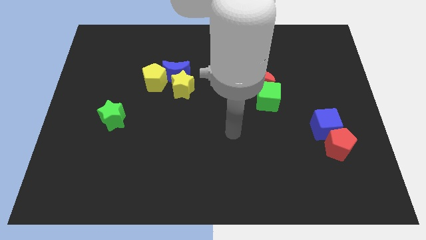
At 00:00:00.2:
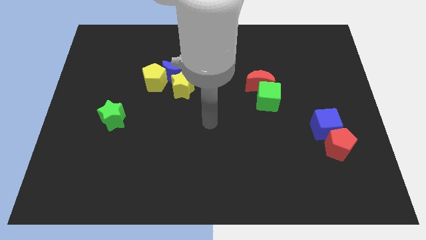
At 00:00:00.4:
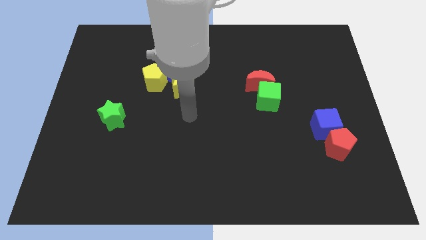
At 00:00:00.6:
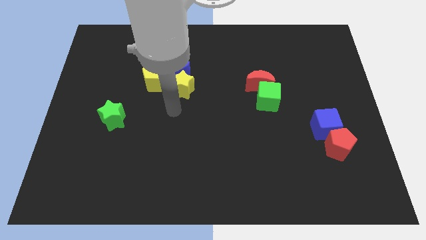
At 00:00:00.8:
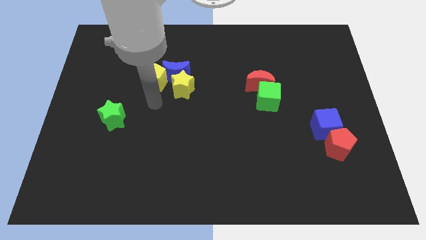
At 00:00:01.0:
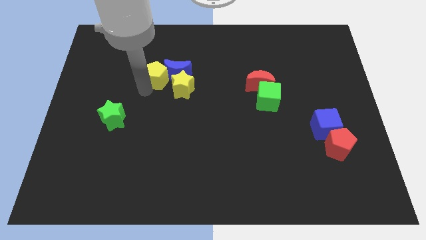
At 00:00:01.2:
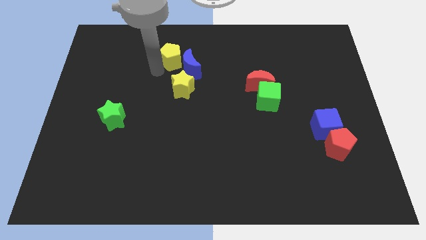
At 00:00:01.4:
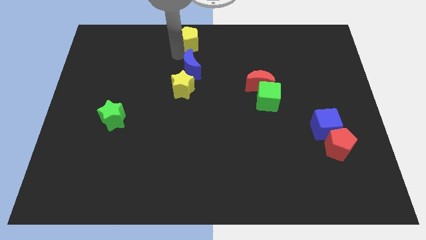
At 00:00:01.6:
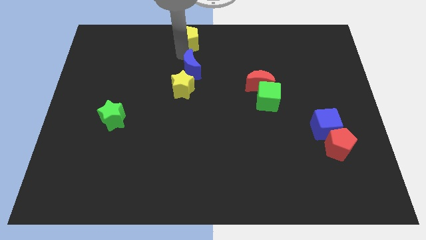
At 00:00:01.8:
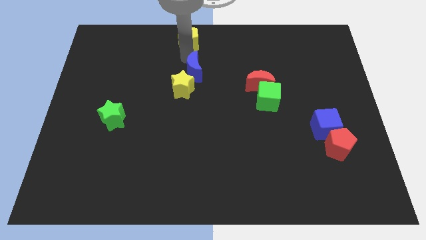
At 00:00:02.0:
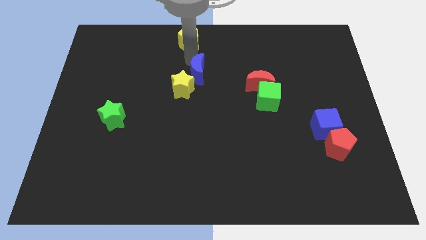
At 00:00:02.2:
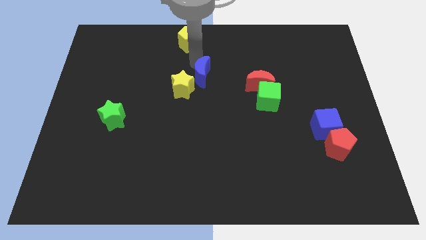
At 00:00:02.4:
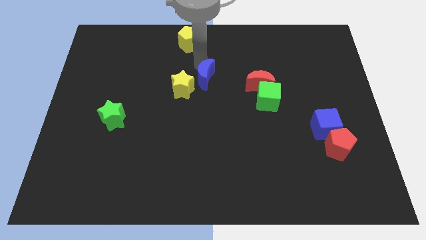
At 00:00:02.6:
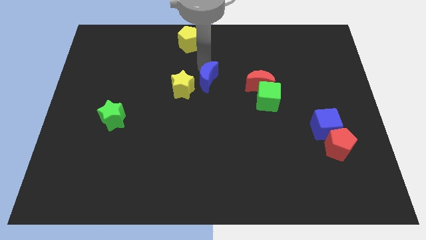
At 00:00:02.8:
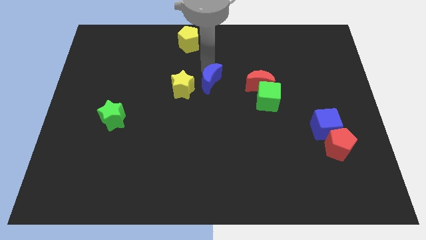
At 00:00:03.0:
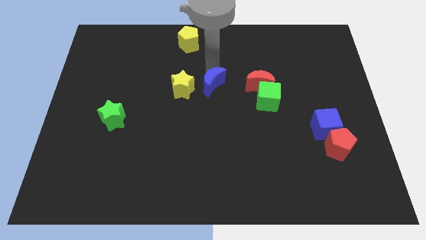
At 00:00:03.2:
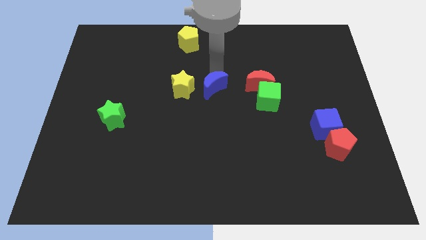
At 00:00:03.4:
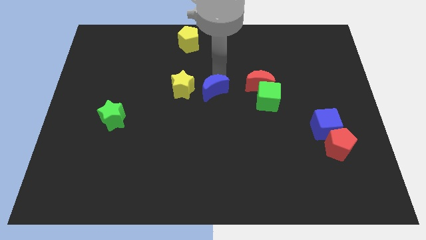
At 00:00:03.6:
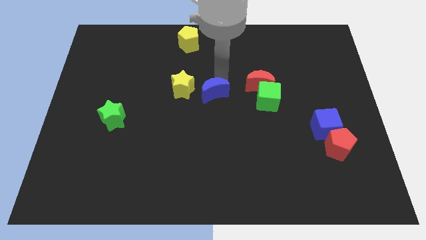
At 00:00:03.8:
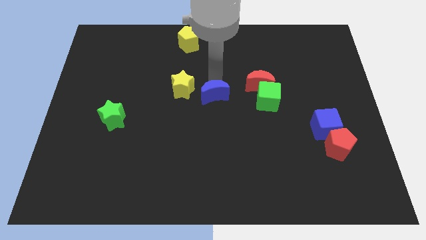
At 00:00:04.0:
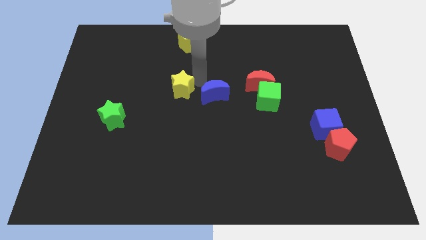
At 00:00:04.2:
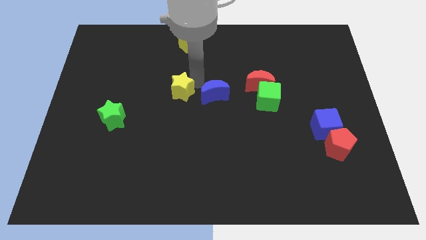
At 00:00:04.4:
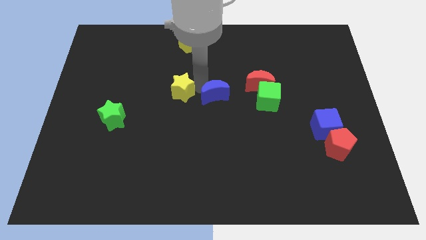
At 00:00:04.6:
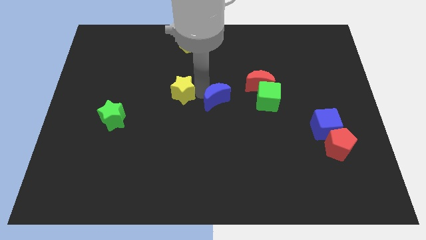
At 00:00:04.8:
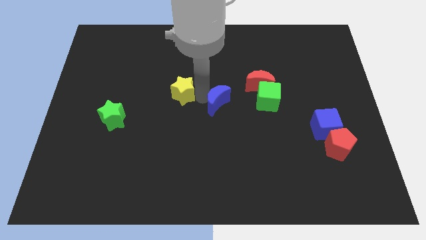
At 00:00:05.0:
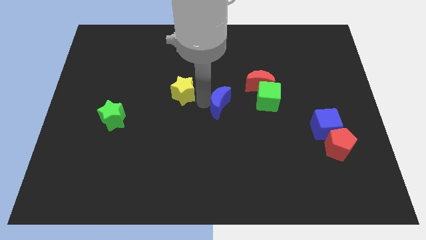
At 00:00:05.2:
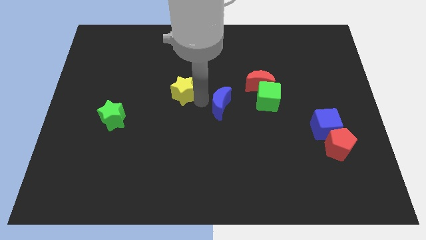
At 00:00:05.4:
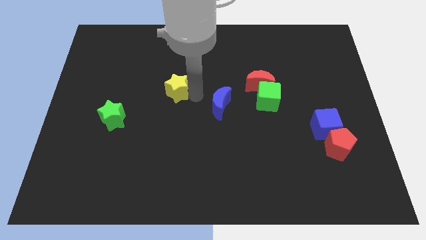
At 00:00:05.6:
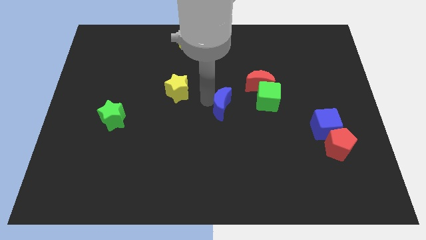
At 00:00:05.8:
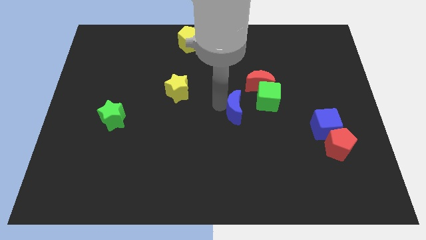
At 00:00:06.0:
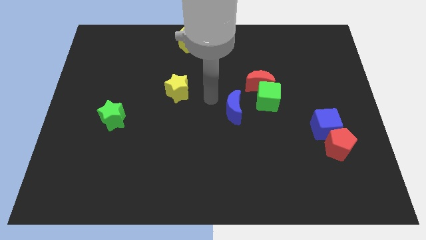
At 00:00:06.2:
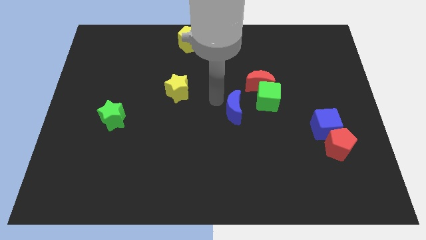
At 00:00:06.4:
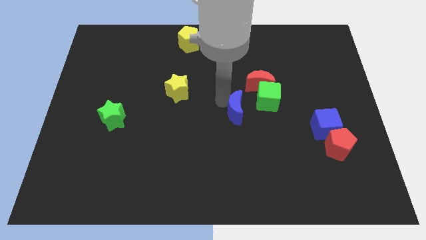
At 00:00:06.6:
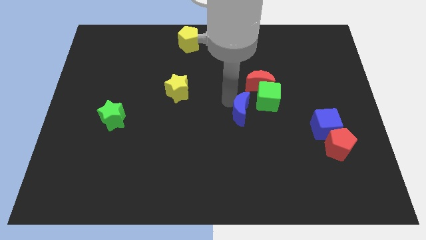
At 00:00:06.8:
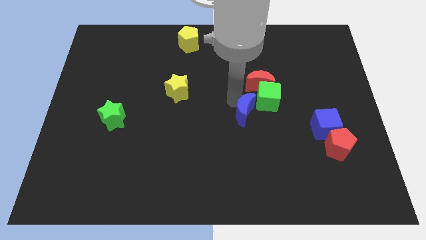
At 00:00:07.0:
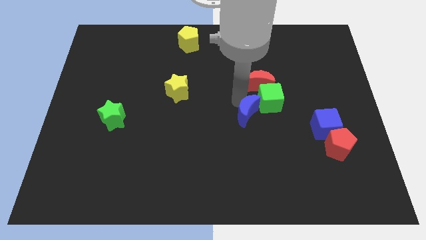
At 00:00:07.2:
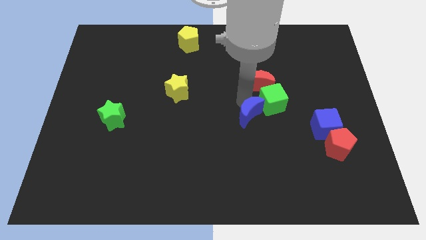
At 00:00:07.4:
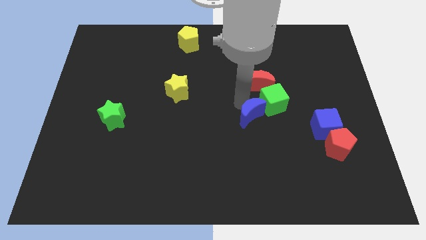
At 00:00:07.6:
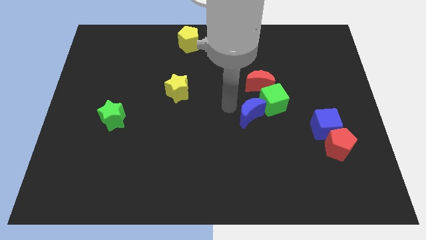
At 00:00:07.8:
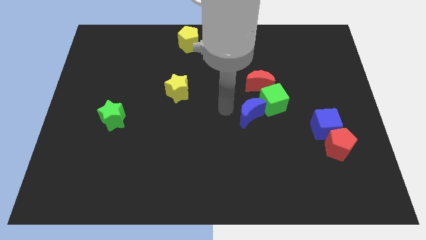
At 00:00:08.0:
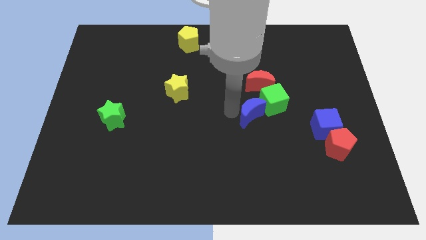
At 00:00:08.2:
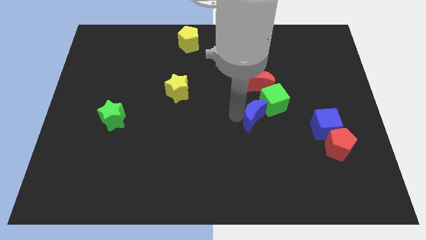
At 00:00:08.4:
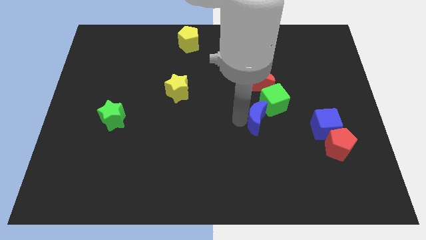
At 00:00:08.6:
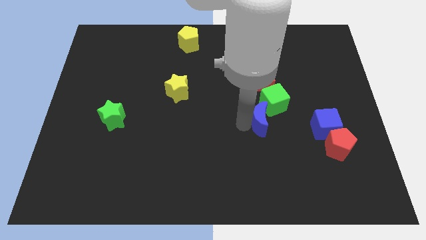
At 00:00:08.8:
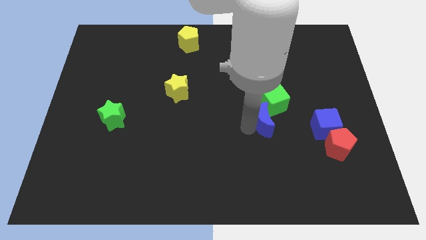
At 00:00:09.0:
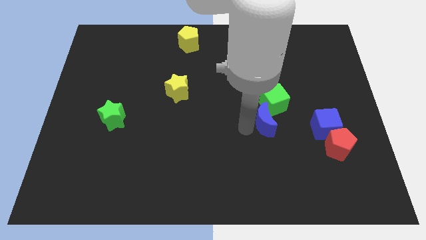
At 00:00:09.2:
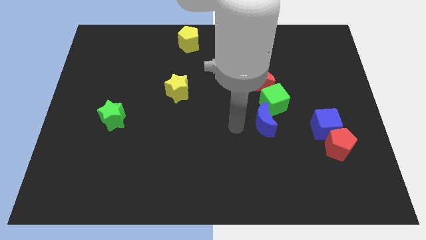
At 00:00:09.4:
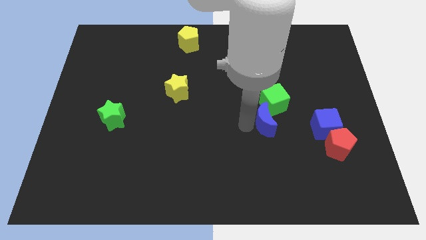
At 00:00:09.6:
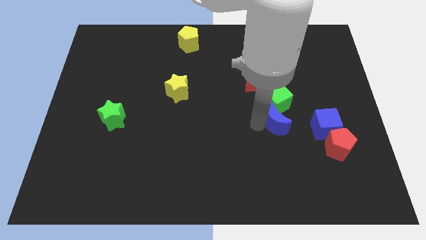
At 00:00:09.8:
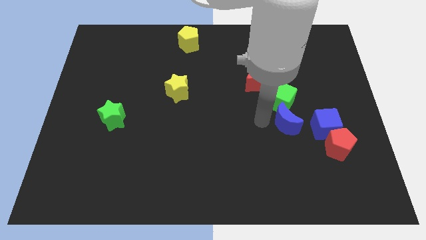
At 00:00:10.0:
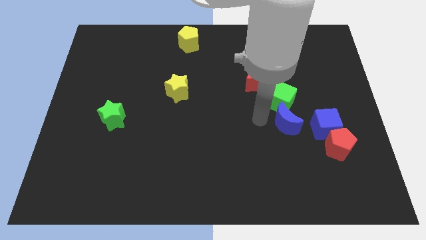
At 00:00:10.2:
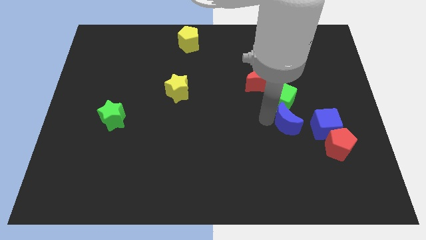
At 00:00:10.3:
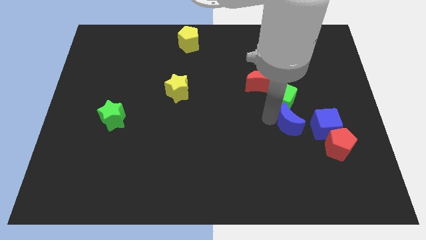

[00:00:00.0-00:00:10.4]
slide the blue moon diagonally up and to the left of the red pentagon
